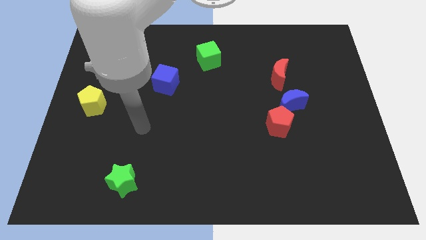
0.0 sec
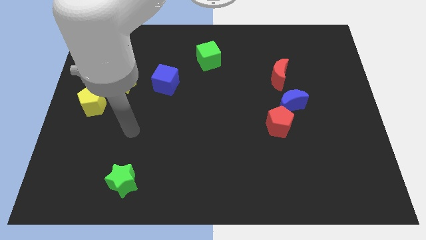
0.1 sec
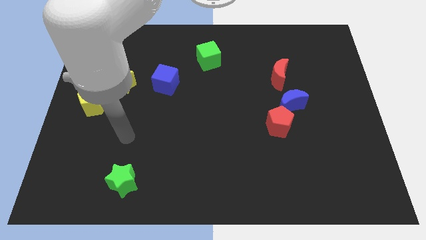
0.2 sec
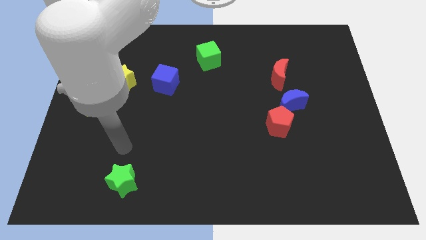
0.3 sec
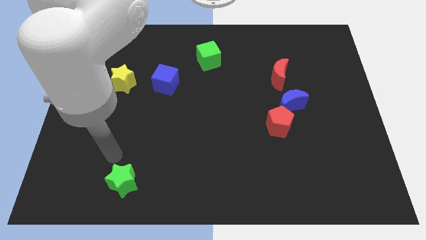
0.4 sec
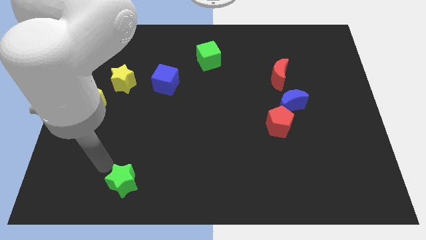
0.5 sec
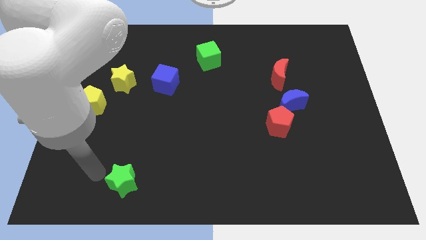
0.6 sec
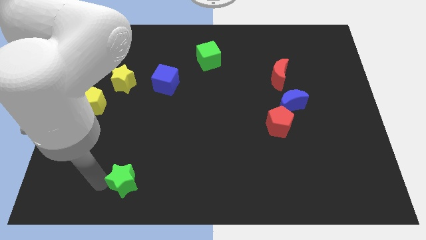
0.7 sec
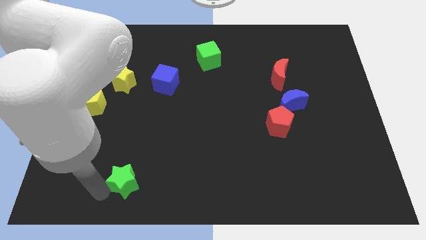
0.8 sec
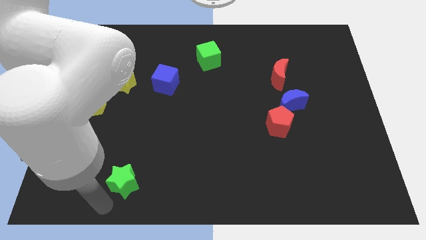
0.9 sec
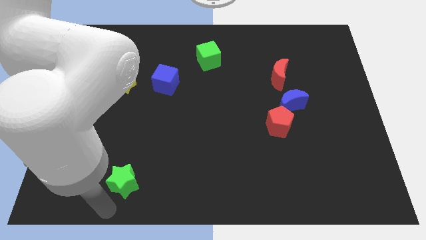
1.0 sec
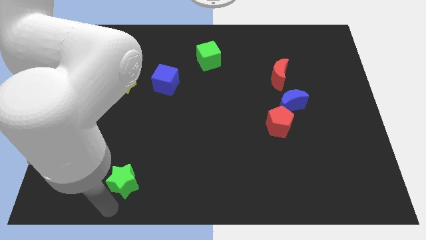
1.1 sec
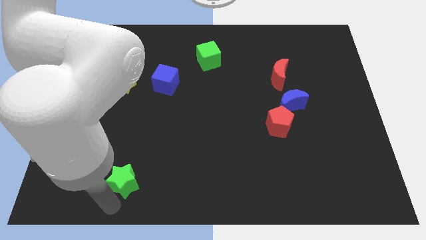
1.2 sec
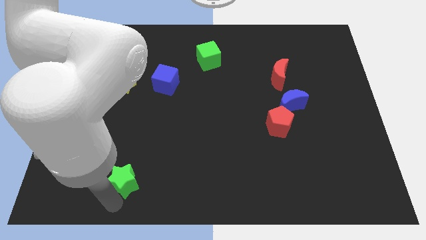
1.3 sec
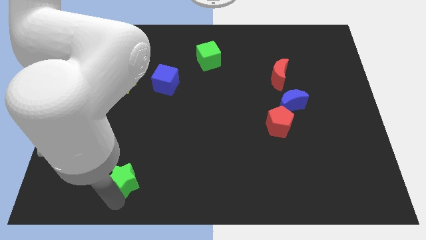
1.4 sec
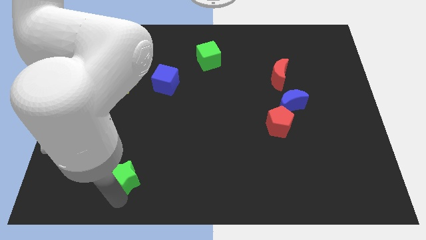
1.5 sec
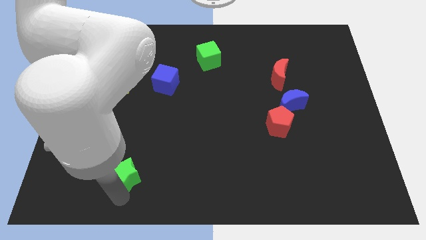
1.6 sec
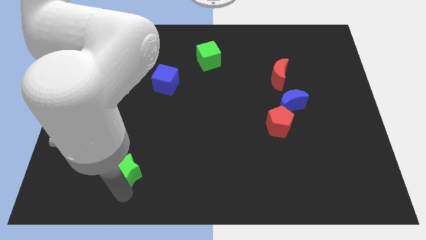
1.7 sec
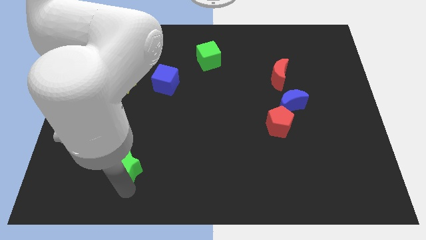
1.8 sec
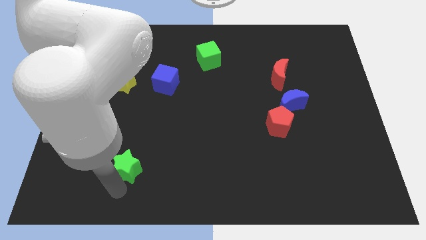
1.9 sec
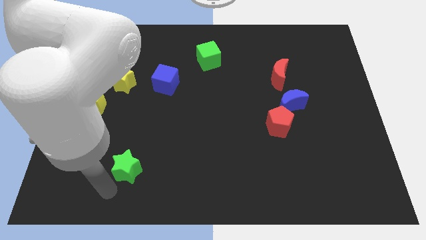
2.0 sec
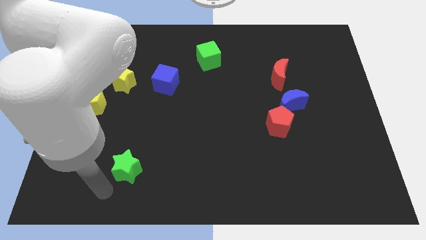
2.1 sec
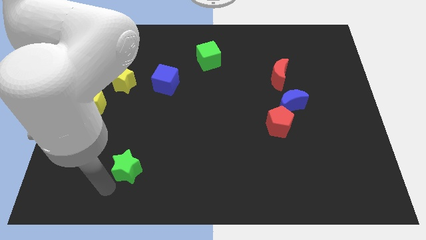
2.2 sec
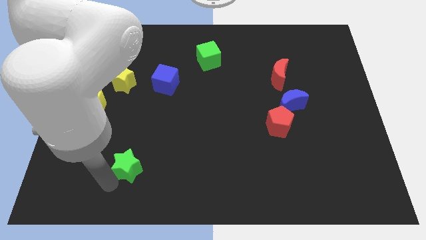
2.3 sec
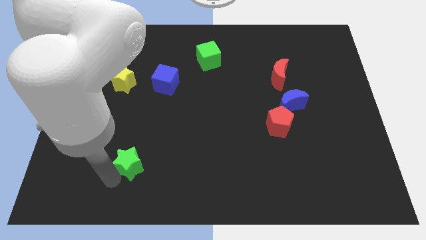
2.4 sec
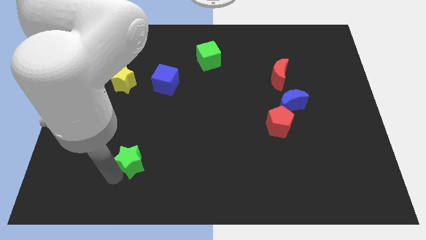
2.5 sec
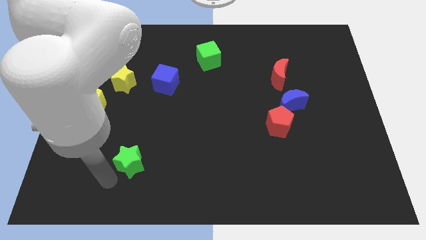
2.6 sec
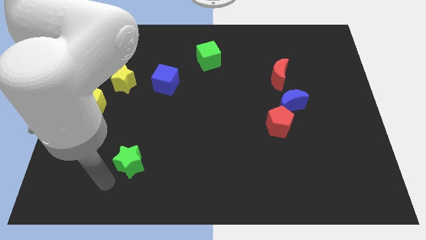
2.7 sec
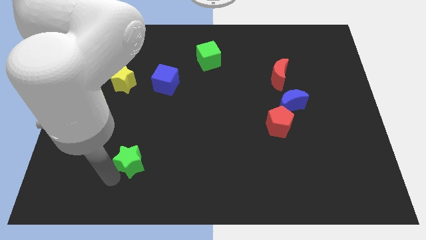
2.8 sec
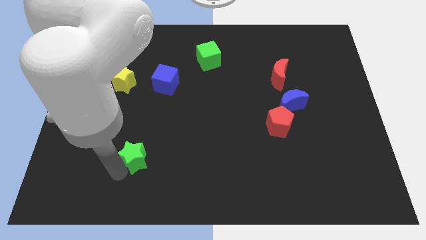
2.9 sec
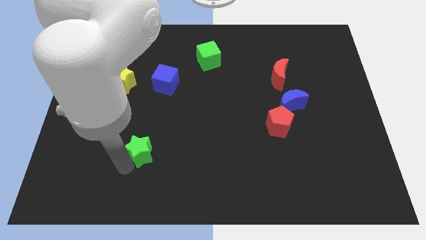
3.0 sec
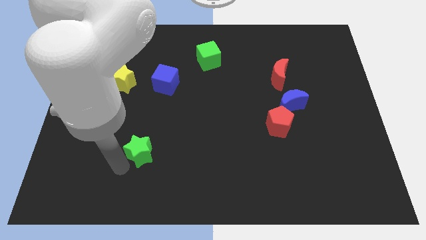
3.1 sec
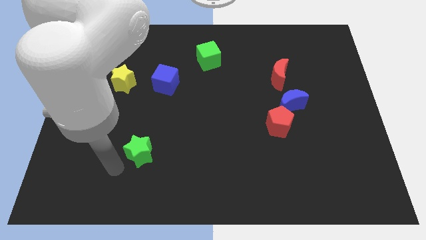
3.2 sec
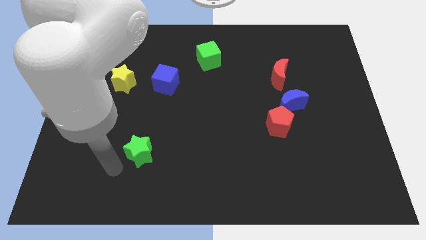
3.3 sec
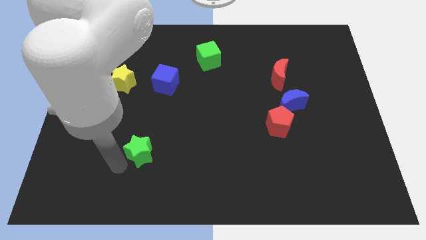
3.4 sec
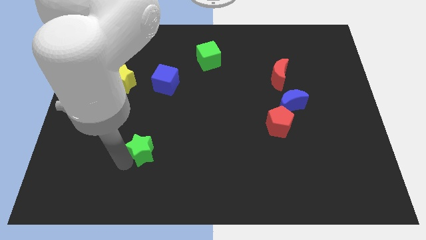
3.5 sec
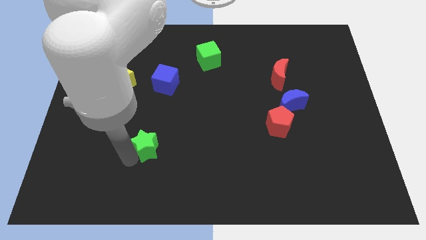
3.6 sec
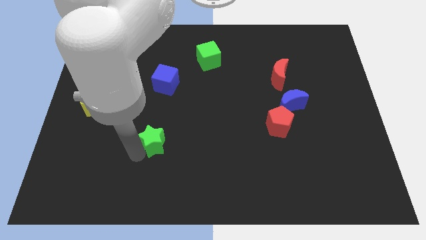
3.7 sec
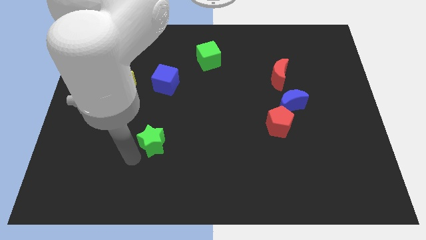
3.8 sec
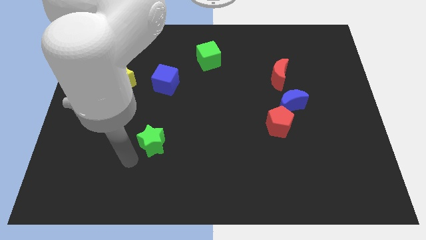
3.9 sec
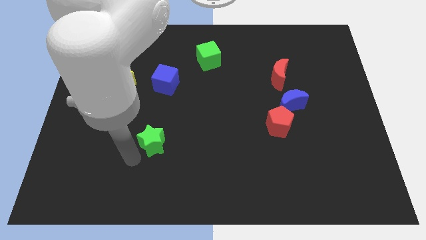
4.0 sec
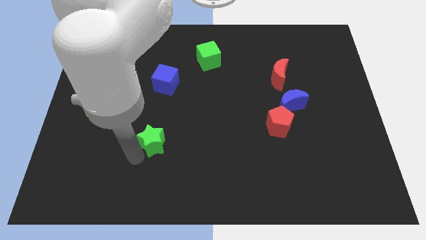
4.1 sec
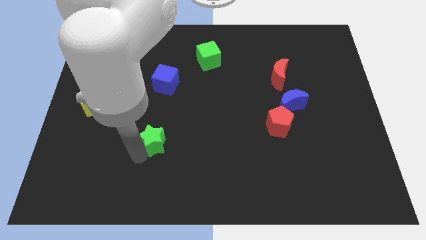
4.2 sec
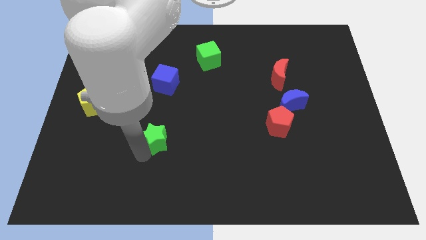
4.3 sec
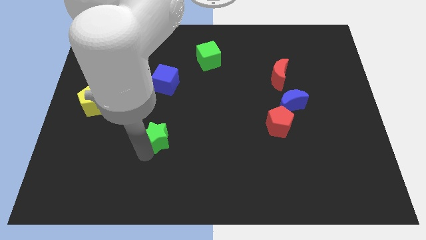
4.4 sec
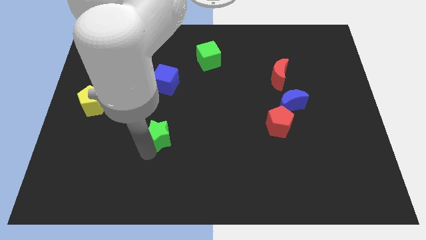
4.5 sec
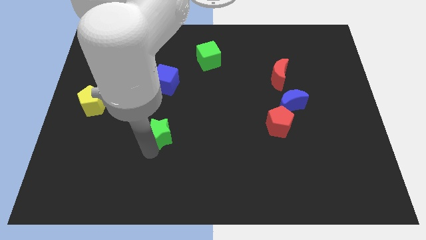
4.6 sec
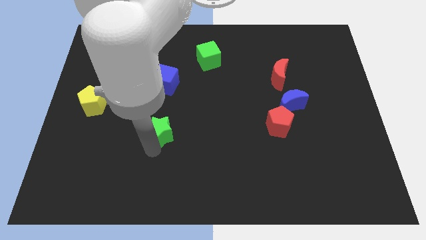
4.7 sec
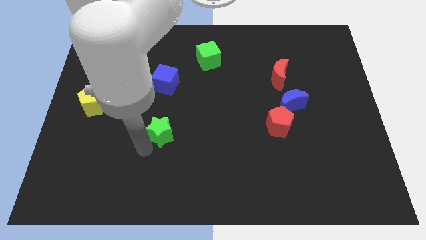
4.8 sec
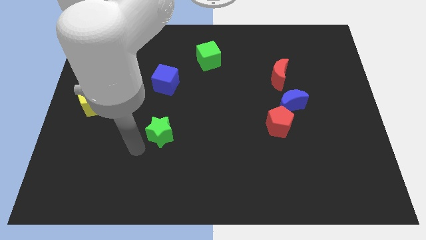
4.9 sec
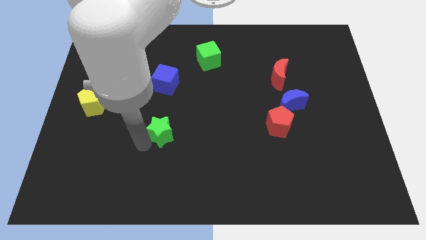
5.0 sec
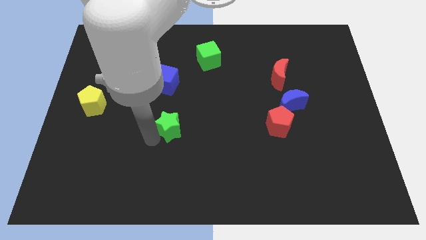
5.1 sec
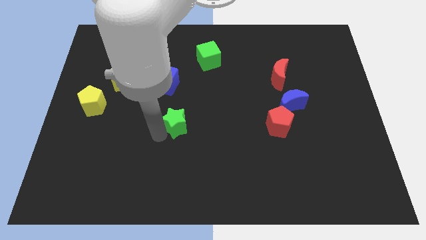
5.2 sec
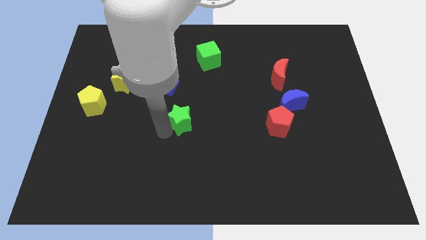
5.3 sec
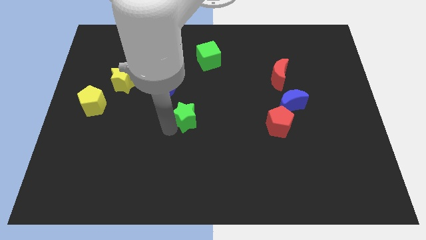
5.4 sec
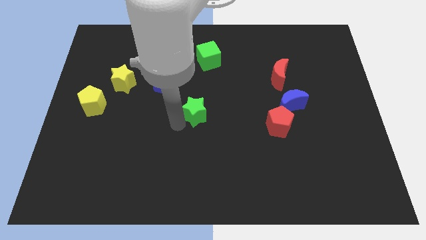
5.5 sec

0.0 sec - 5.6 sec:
slide the green star diagonally up and right

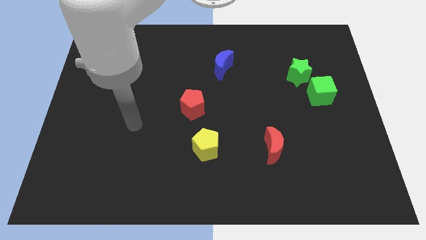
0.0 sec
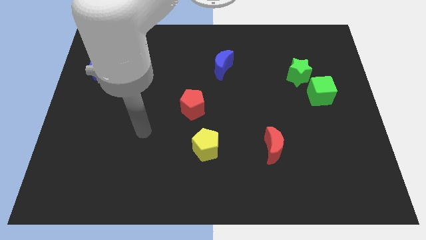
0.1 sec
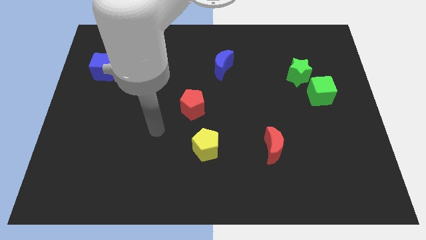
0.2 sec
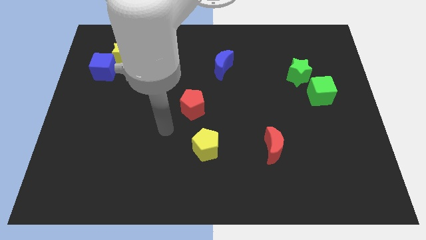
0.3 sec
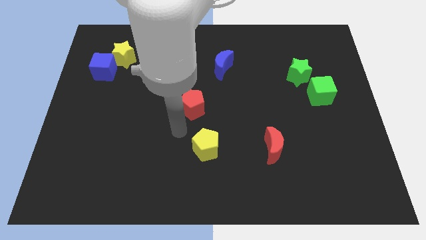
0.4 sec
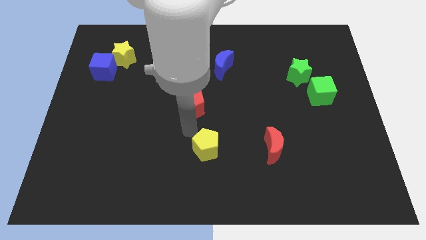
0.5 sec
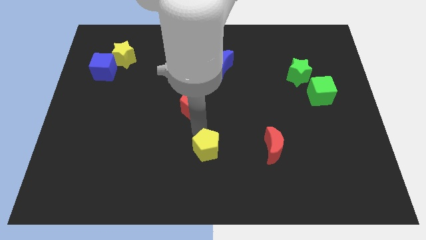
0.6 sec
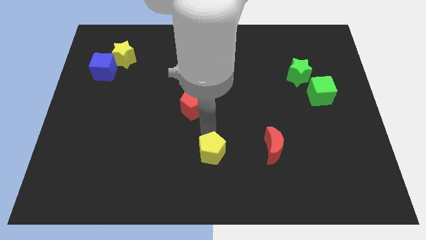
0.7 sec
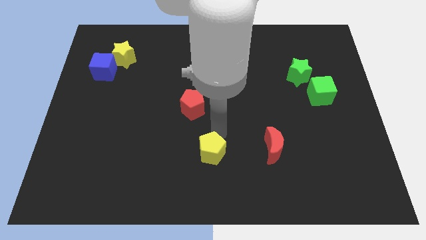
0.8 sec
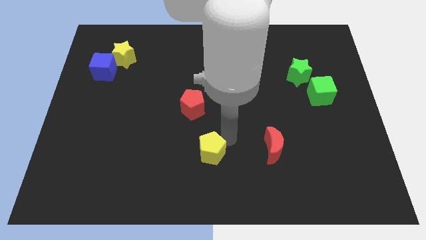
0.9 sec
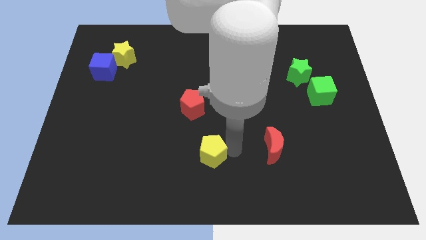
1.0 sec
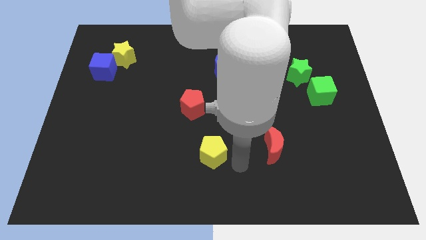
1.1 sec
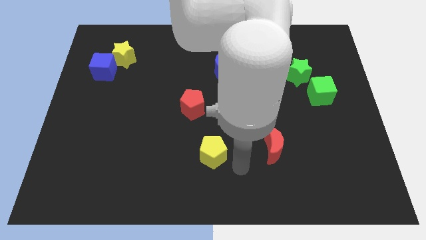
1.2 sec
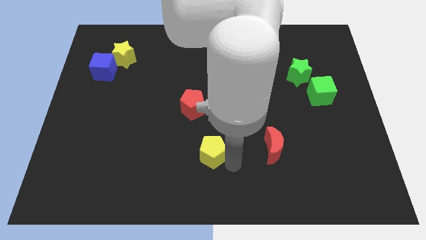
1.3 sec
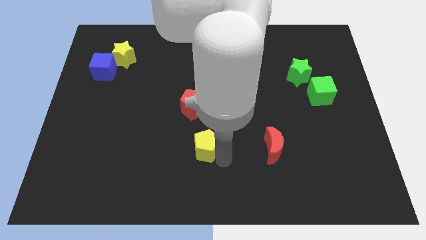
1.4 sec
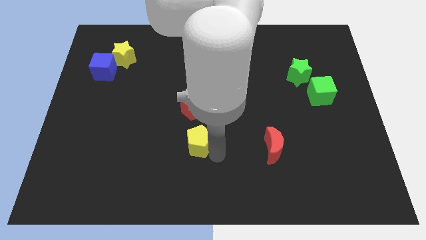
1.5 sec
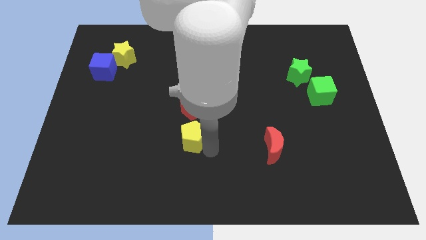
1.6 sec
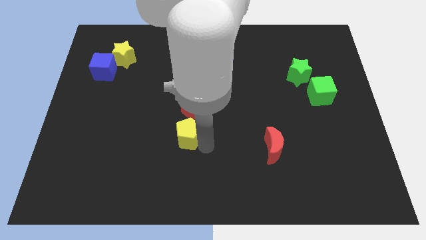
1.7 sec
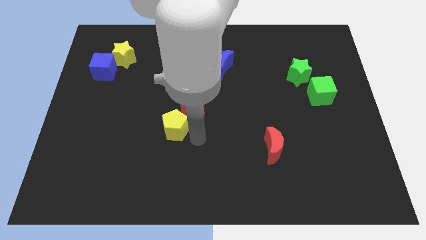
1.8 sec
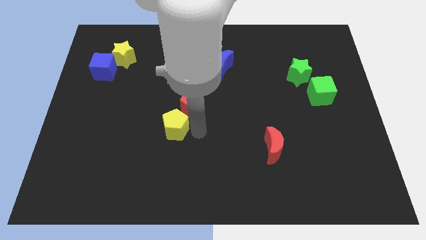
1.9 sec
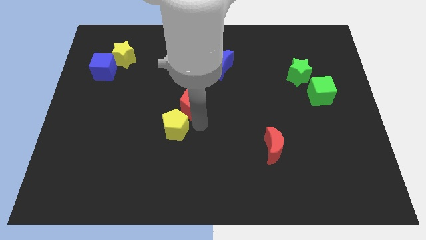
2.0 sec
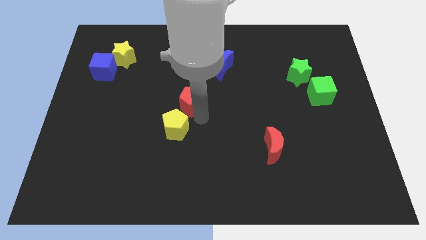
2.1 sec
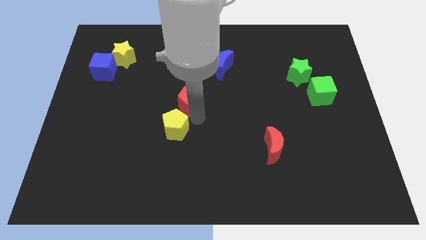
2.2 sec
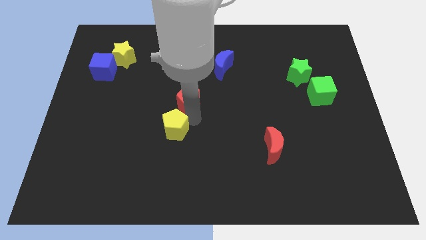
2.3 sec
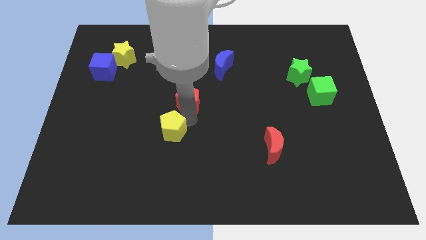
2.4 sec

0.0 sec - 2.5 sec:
slightly slide the yellow pentagon left
